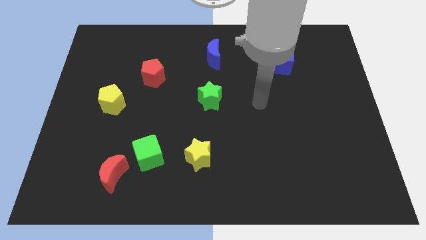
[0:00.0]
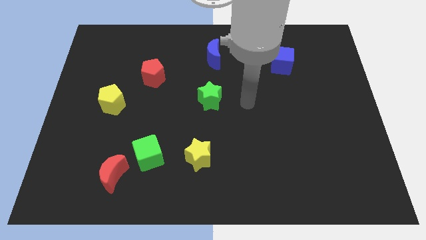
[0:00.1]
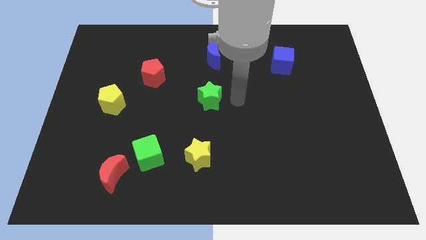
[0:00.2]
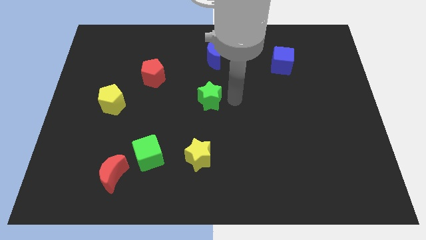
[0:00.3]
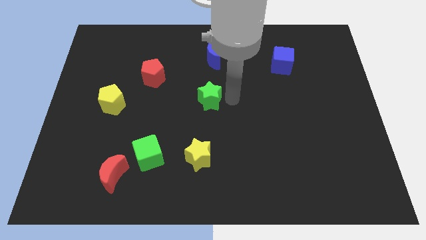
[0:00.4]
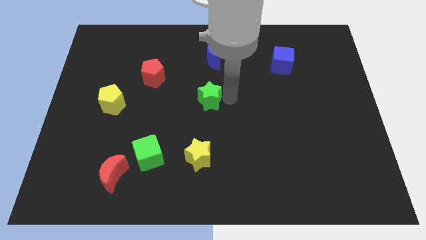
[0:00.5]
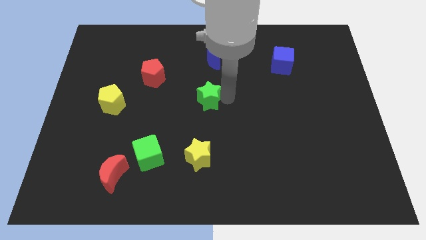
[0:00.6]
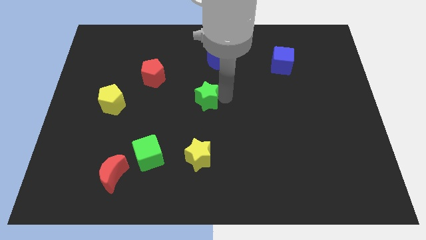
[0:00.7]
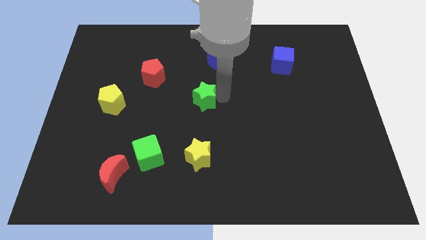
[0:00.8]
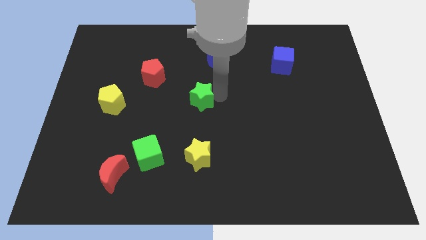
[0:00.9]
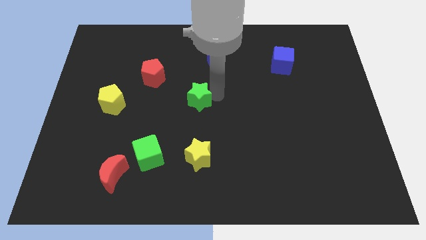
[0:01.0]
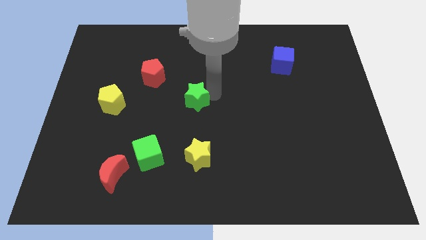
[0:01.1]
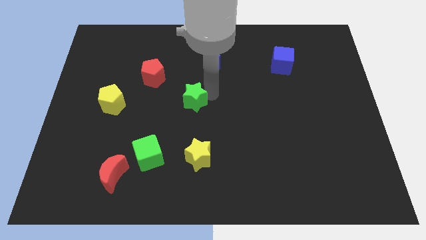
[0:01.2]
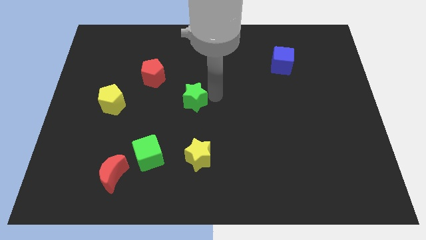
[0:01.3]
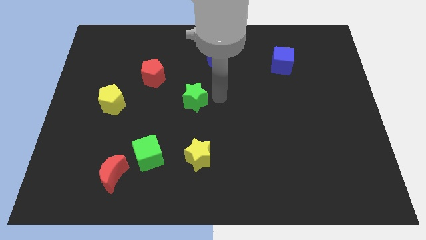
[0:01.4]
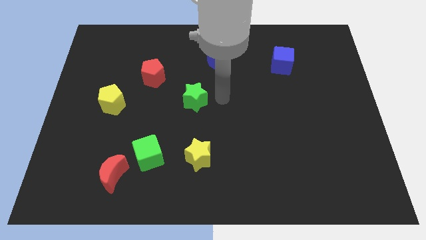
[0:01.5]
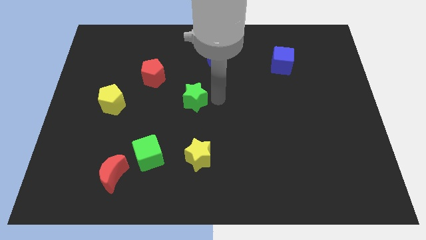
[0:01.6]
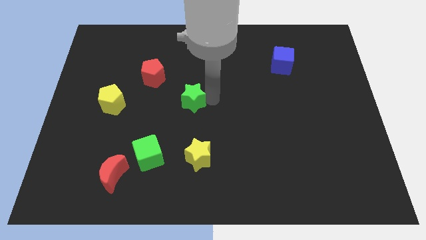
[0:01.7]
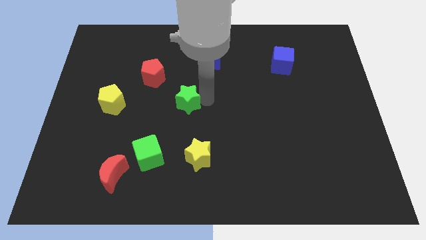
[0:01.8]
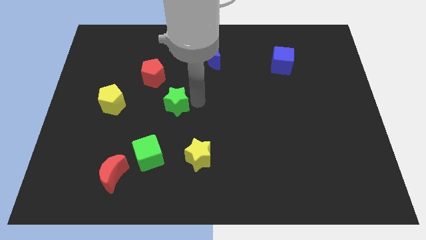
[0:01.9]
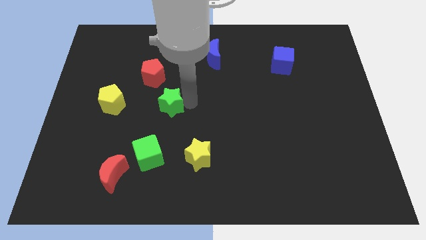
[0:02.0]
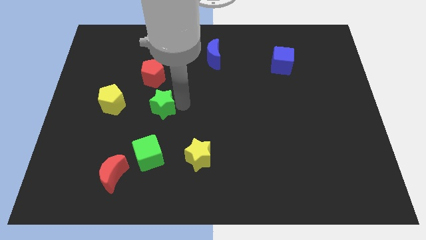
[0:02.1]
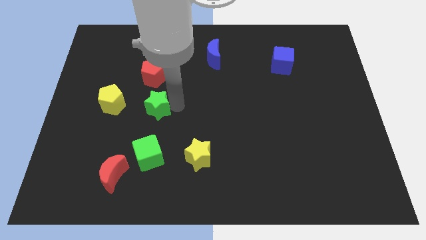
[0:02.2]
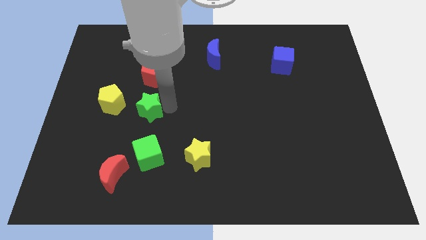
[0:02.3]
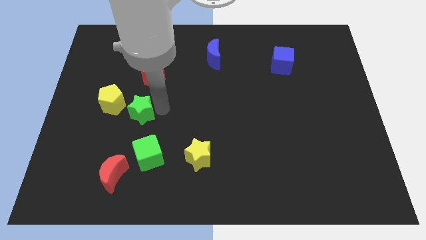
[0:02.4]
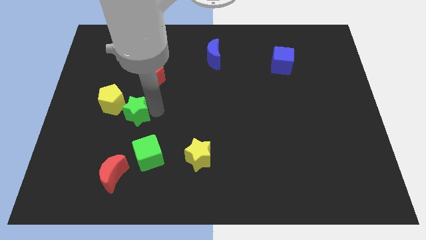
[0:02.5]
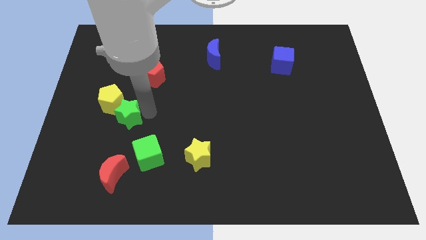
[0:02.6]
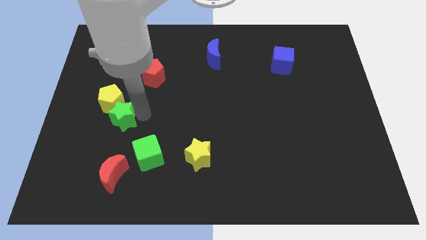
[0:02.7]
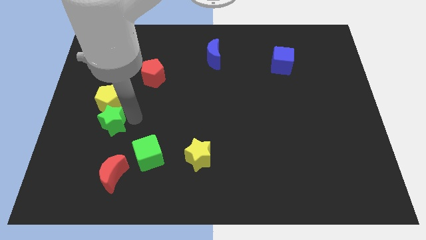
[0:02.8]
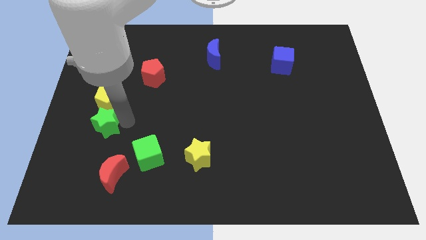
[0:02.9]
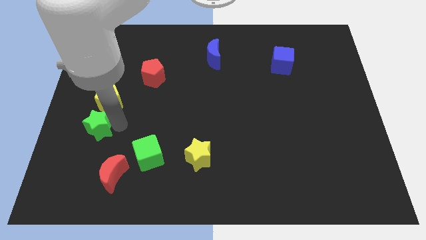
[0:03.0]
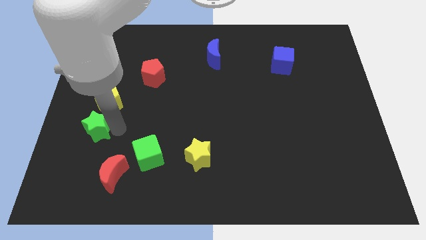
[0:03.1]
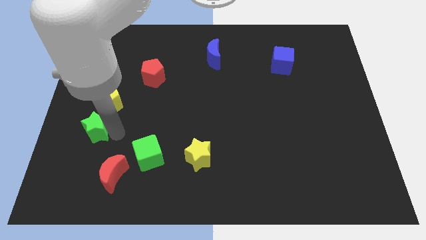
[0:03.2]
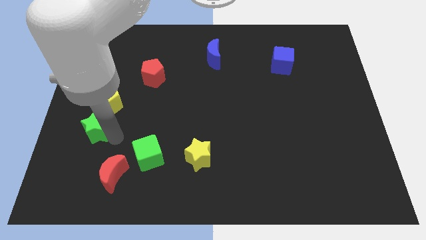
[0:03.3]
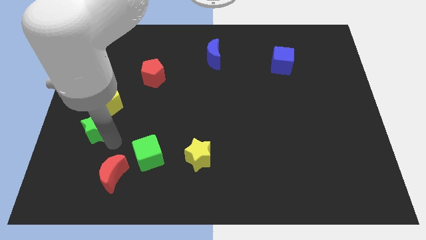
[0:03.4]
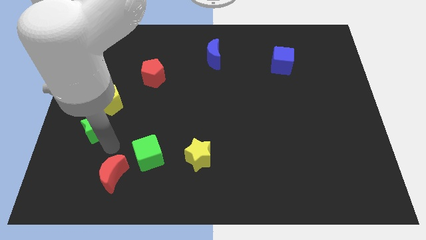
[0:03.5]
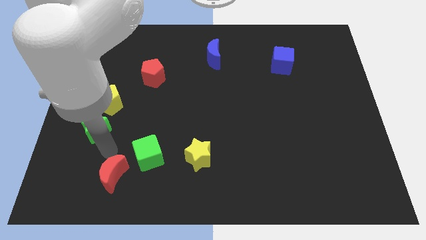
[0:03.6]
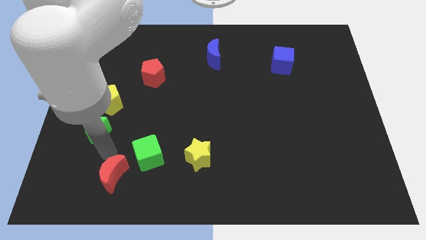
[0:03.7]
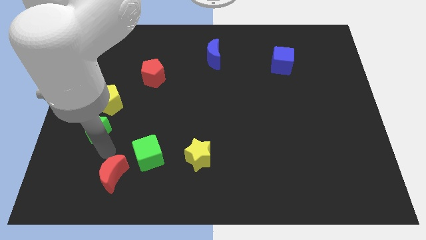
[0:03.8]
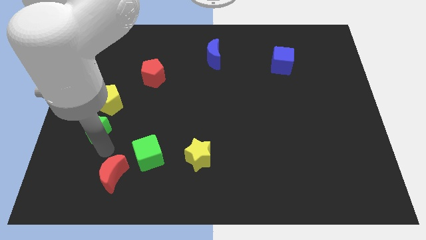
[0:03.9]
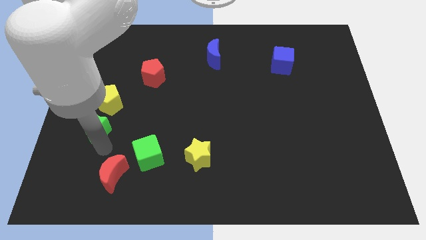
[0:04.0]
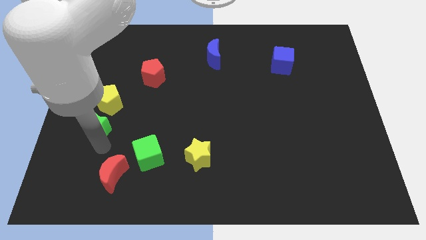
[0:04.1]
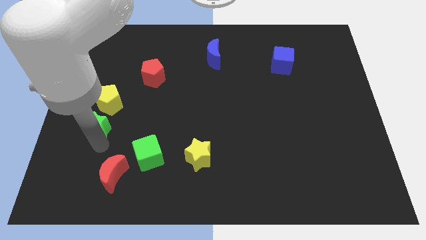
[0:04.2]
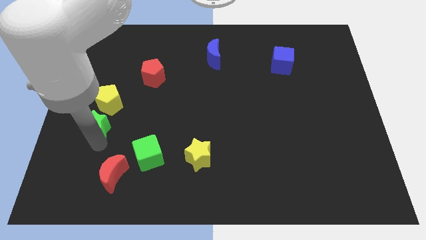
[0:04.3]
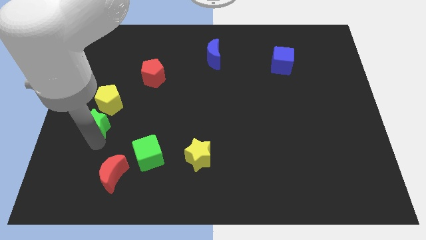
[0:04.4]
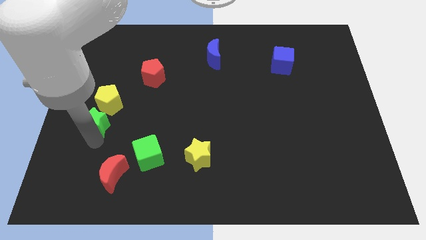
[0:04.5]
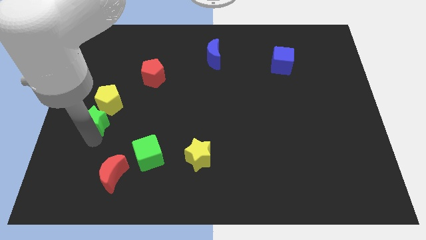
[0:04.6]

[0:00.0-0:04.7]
move the green star to the left side of the board

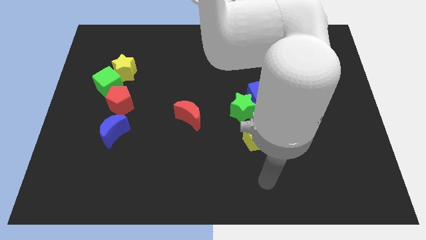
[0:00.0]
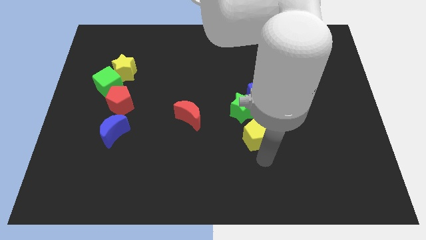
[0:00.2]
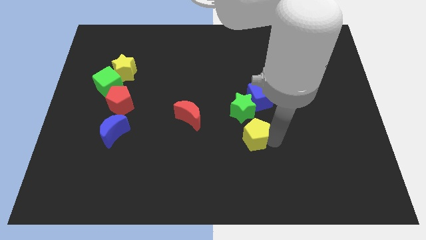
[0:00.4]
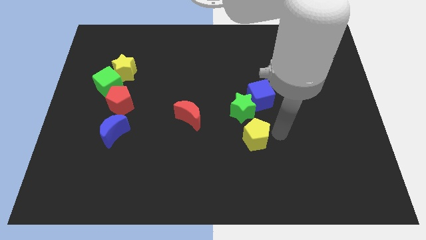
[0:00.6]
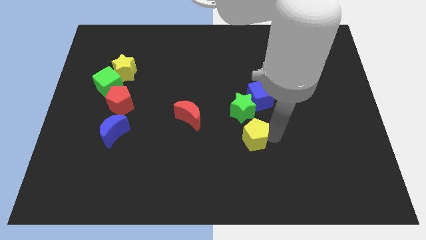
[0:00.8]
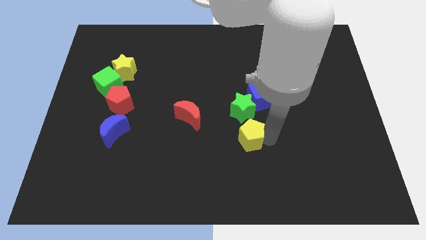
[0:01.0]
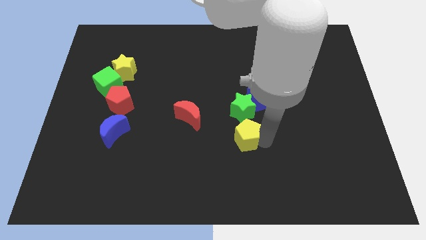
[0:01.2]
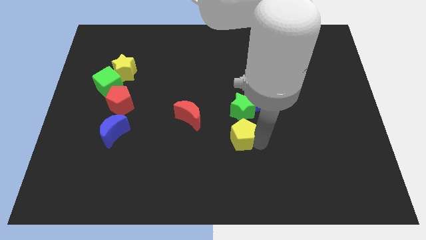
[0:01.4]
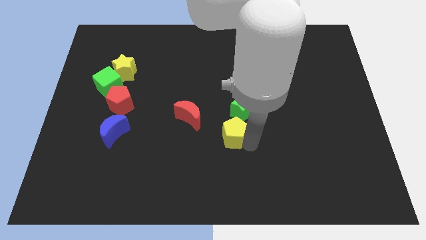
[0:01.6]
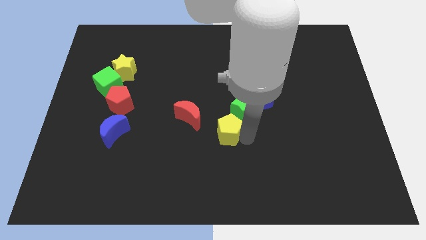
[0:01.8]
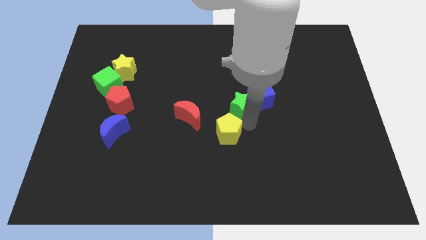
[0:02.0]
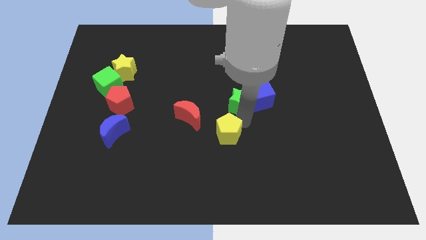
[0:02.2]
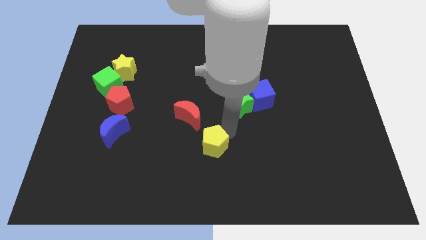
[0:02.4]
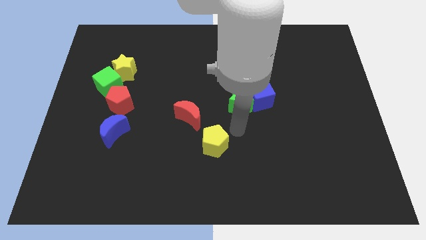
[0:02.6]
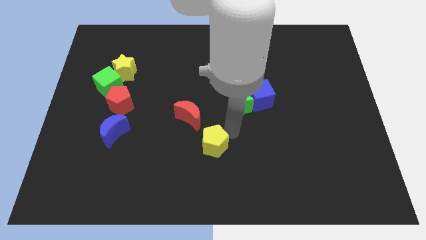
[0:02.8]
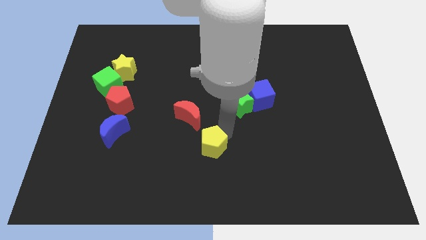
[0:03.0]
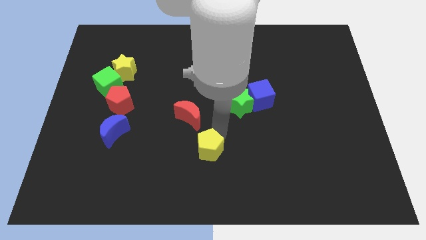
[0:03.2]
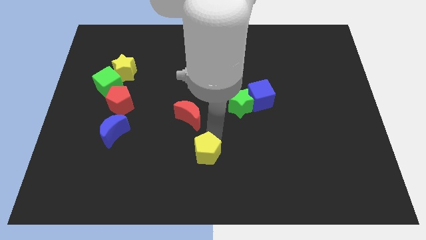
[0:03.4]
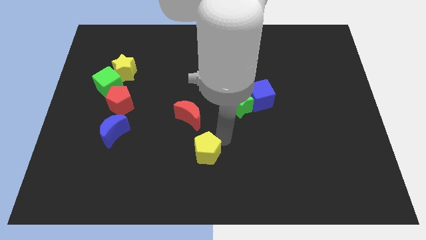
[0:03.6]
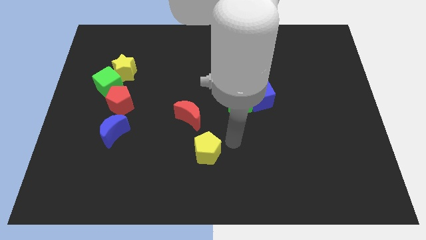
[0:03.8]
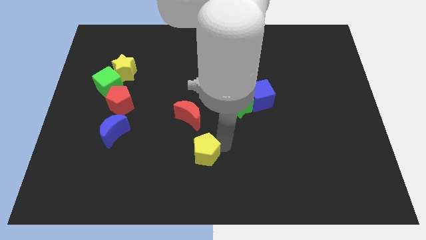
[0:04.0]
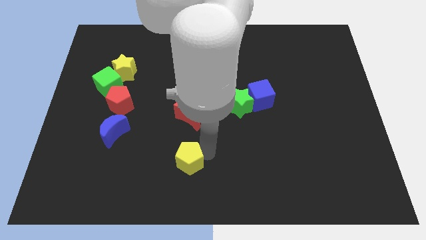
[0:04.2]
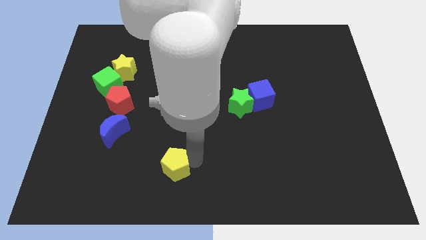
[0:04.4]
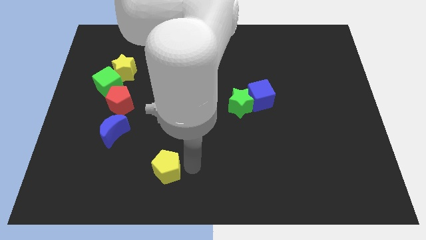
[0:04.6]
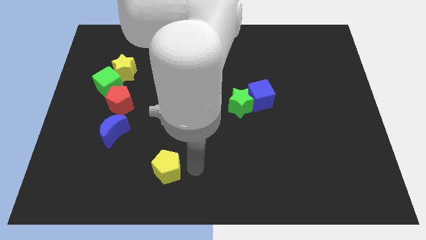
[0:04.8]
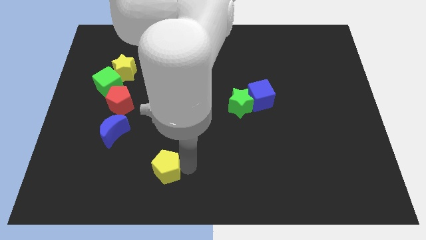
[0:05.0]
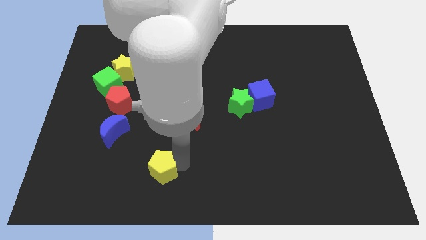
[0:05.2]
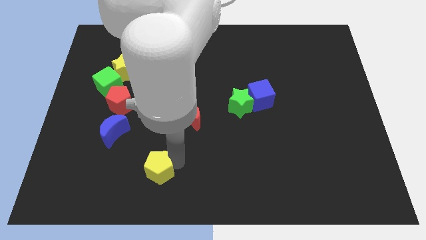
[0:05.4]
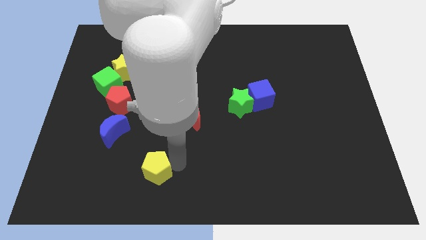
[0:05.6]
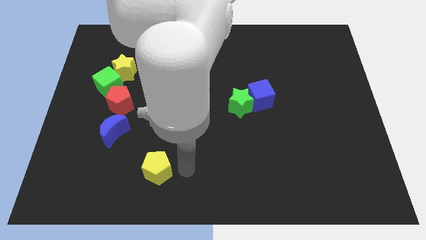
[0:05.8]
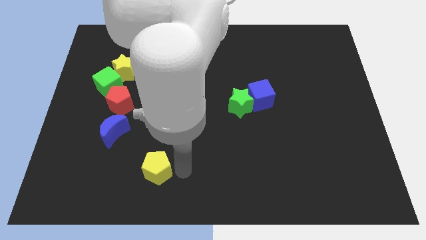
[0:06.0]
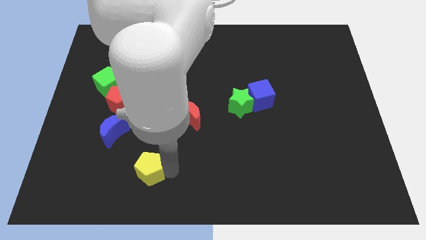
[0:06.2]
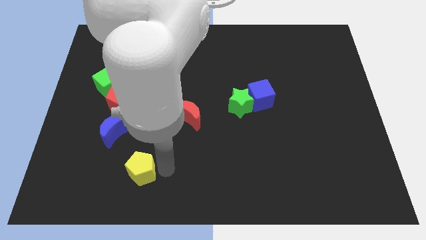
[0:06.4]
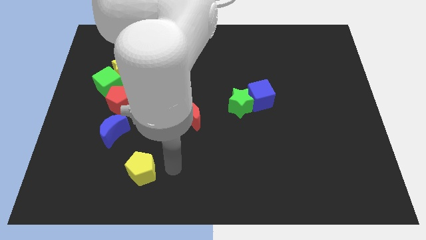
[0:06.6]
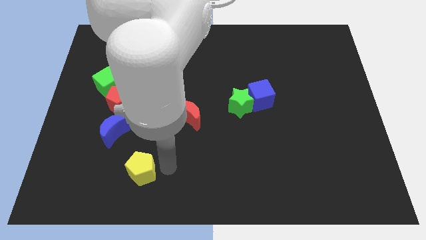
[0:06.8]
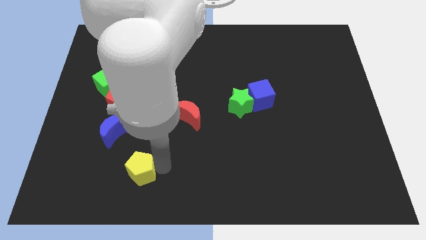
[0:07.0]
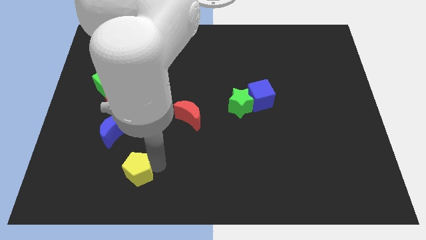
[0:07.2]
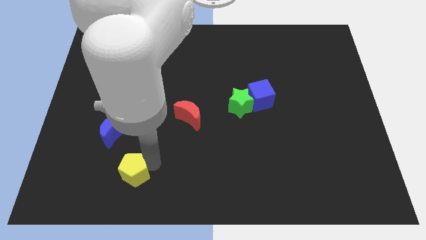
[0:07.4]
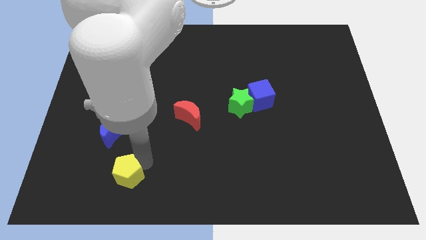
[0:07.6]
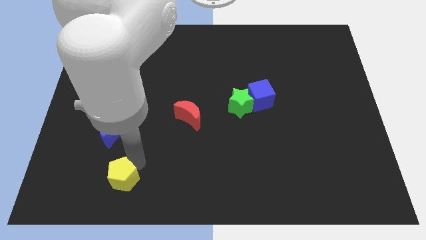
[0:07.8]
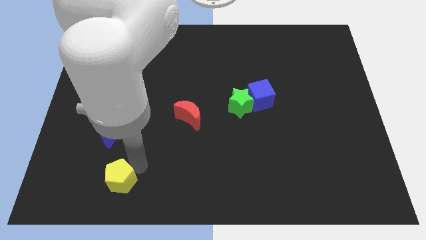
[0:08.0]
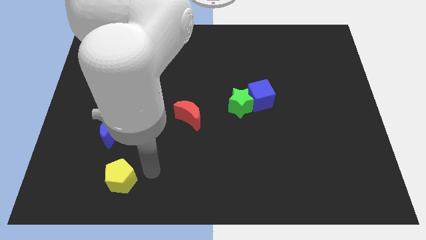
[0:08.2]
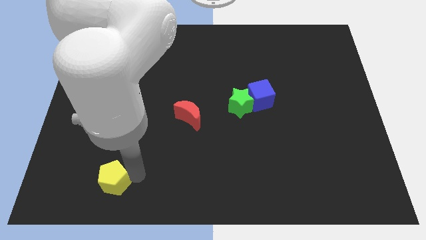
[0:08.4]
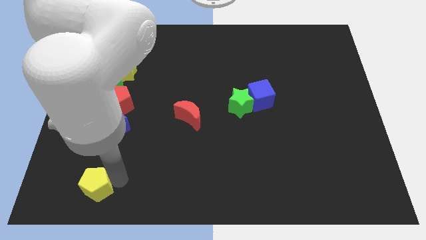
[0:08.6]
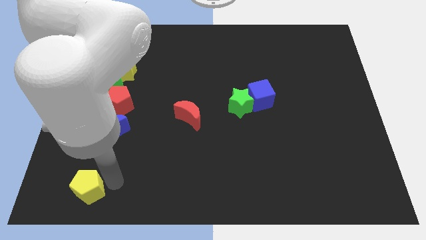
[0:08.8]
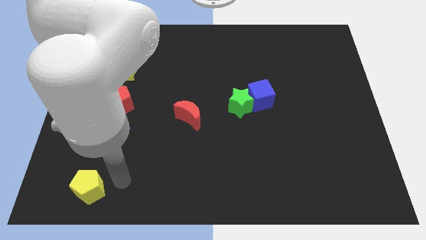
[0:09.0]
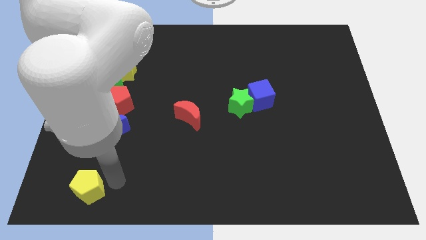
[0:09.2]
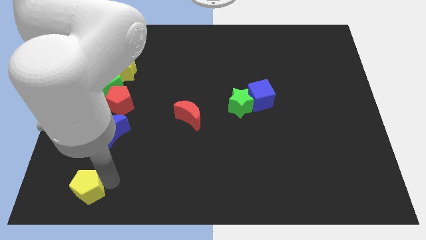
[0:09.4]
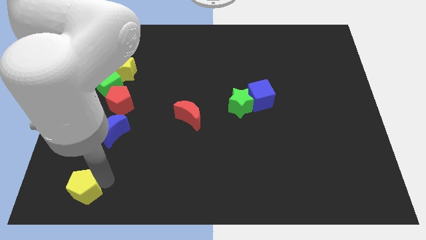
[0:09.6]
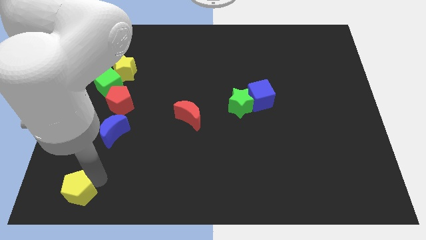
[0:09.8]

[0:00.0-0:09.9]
slide the yellow pentagon to the bottom left
